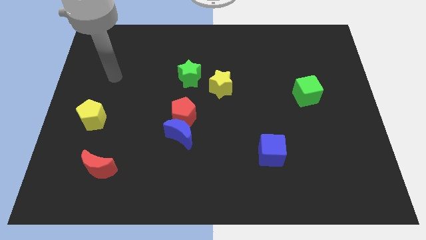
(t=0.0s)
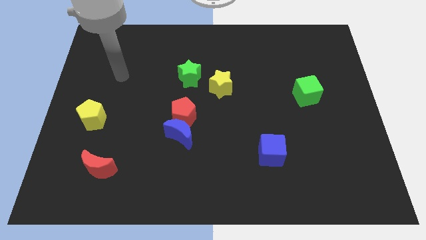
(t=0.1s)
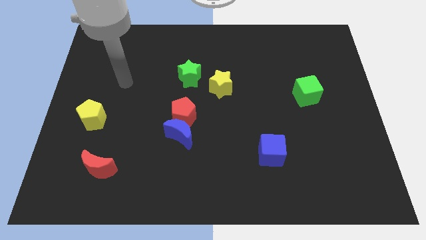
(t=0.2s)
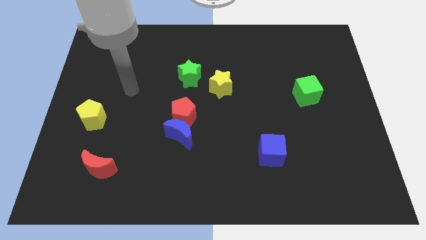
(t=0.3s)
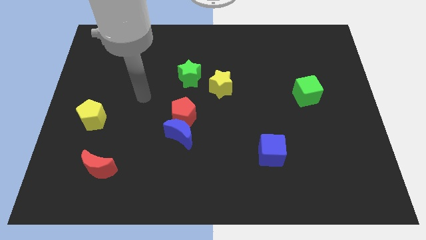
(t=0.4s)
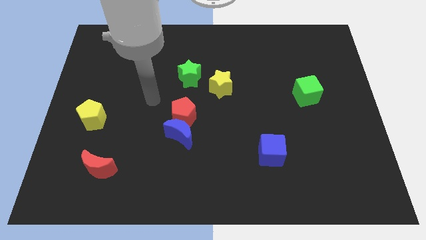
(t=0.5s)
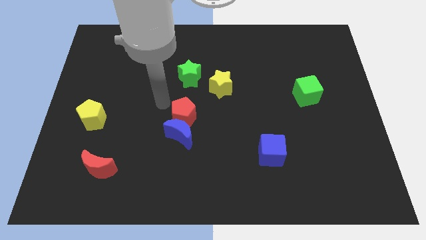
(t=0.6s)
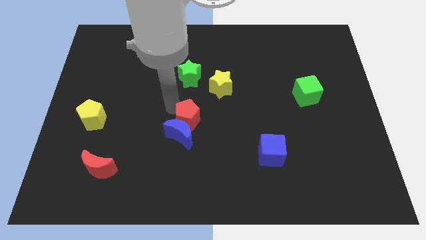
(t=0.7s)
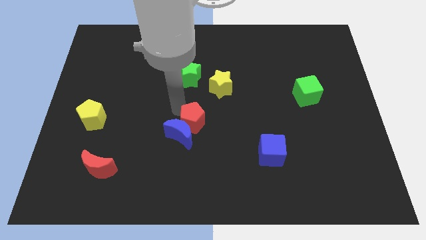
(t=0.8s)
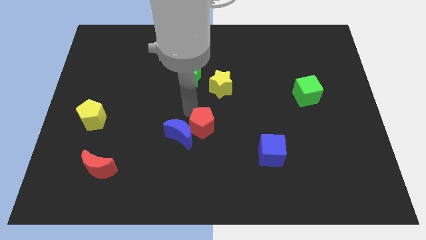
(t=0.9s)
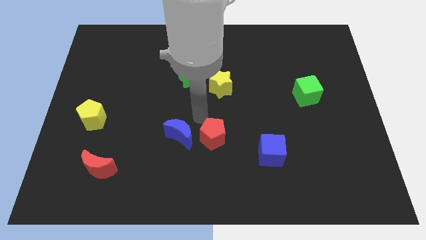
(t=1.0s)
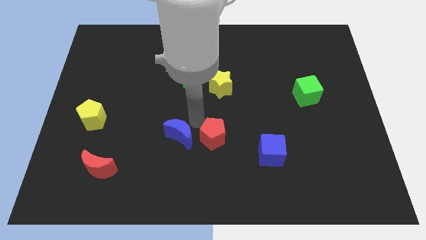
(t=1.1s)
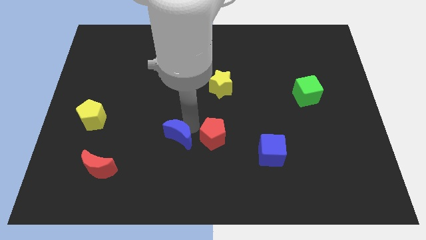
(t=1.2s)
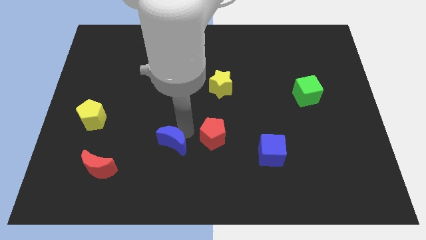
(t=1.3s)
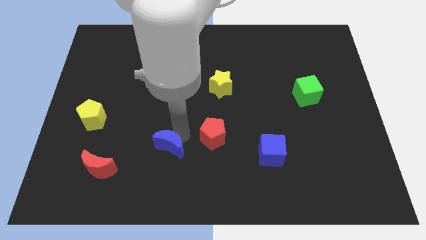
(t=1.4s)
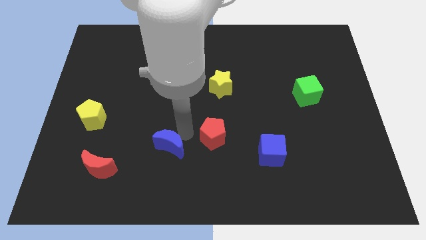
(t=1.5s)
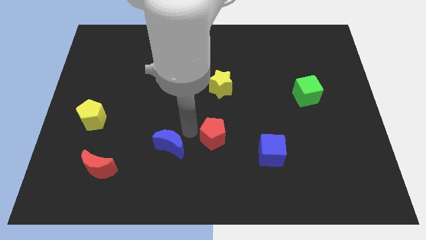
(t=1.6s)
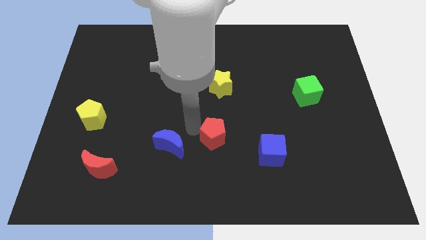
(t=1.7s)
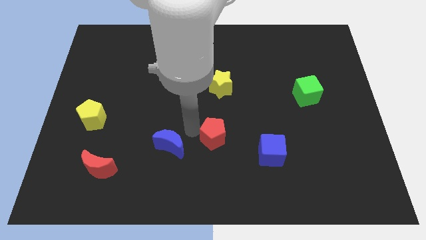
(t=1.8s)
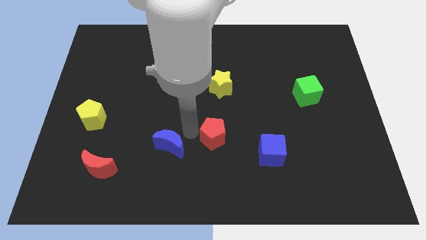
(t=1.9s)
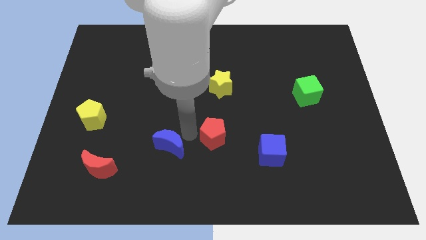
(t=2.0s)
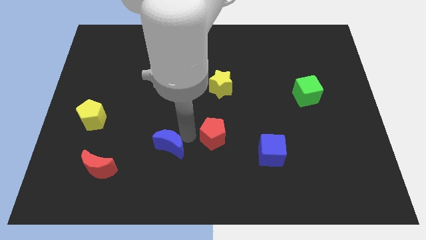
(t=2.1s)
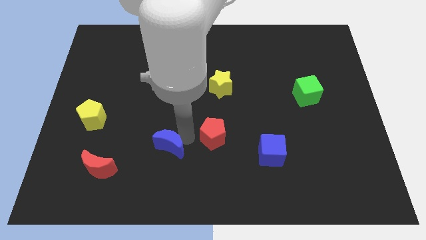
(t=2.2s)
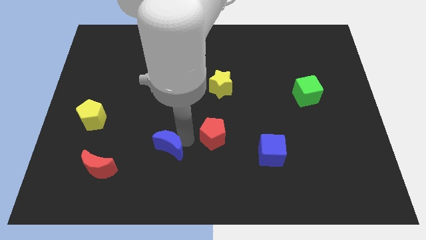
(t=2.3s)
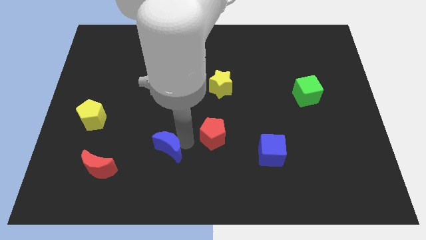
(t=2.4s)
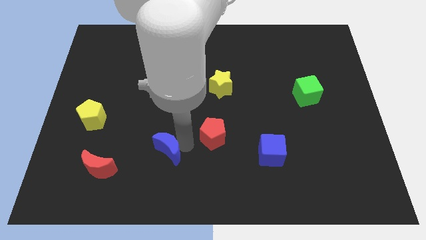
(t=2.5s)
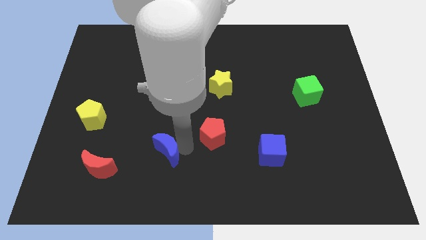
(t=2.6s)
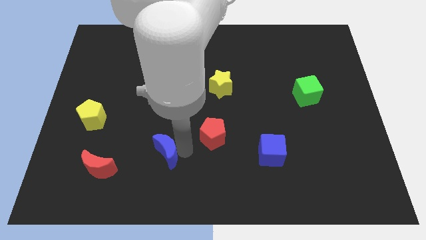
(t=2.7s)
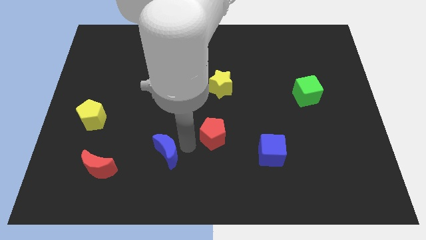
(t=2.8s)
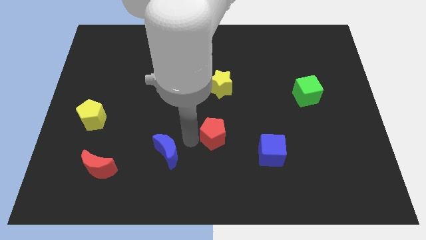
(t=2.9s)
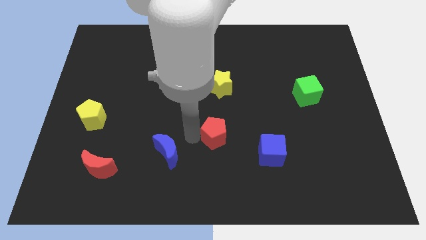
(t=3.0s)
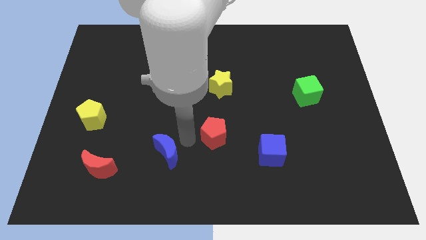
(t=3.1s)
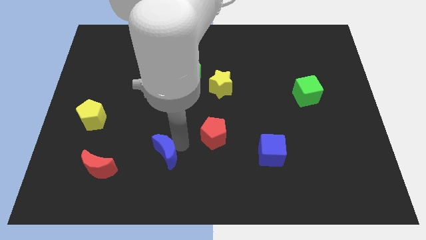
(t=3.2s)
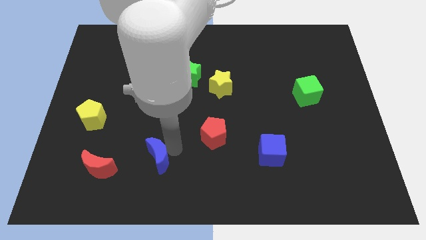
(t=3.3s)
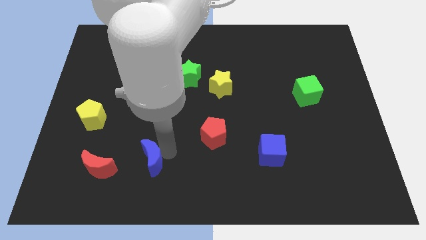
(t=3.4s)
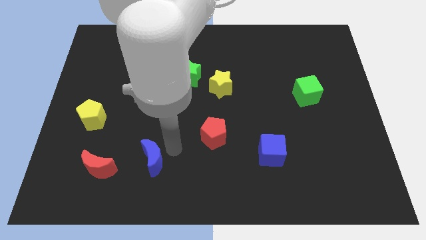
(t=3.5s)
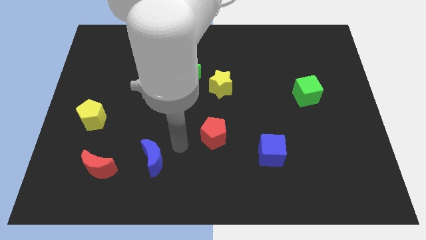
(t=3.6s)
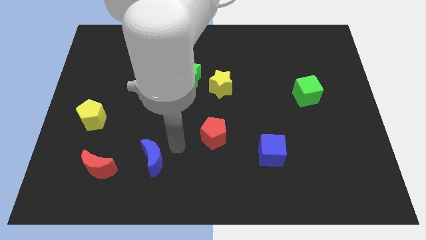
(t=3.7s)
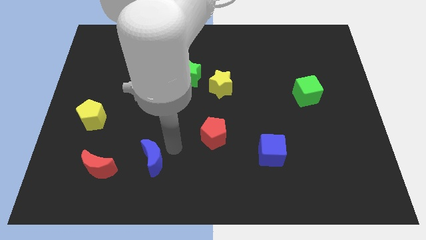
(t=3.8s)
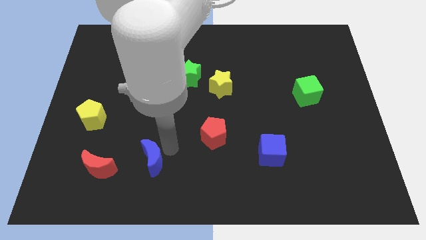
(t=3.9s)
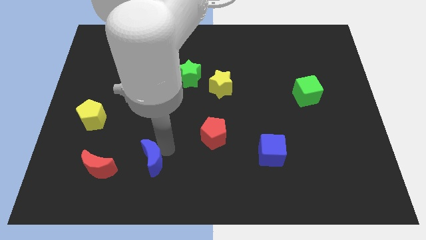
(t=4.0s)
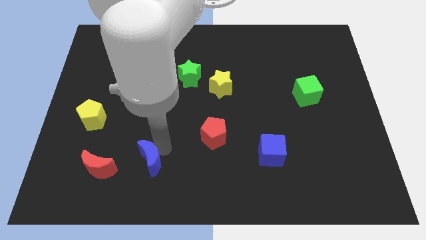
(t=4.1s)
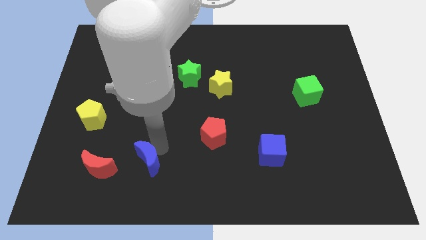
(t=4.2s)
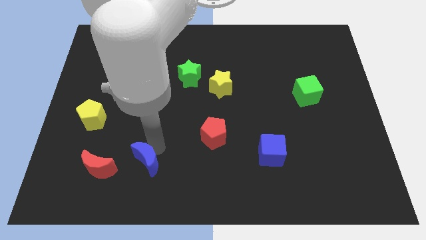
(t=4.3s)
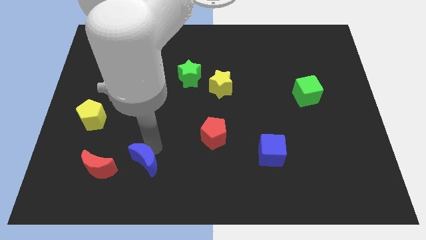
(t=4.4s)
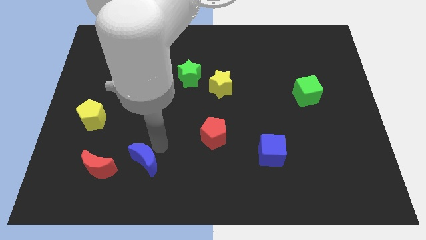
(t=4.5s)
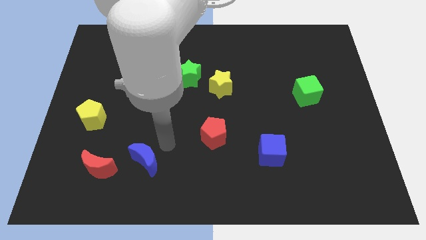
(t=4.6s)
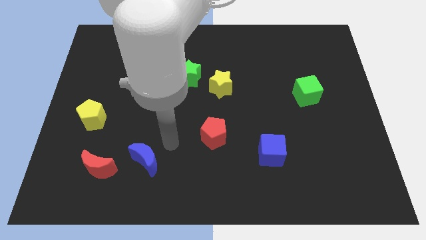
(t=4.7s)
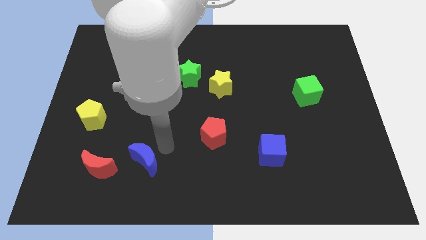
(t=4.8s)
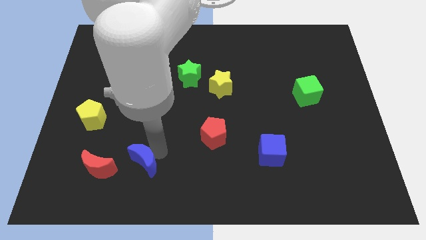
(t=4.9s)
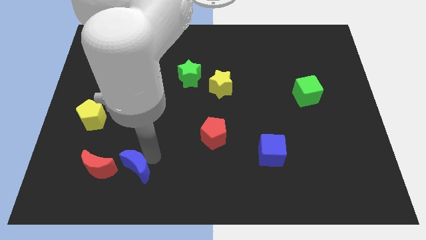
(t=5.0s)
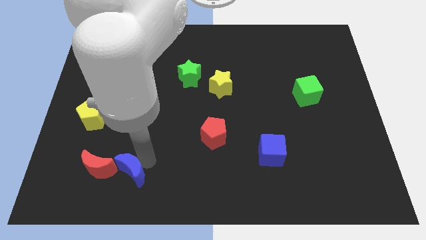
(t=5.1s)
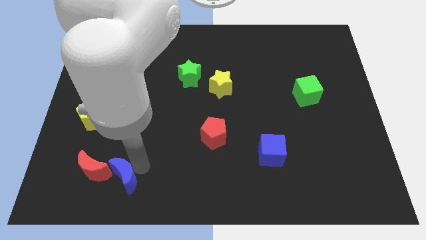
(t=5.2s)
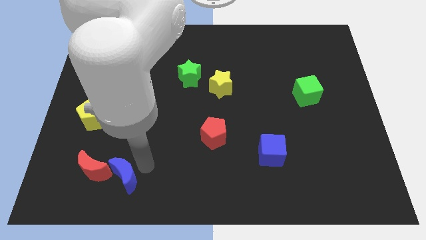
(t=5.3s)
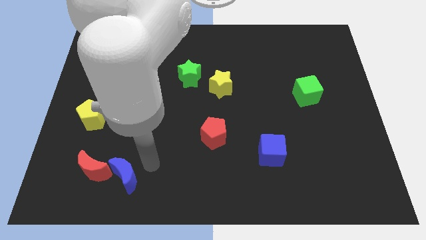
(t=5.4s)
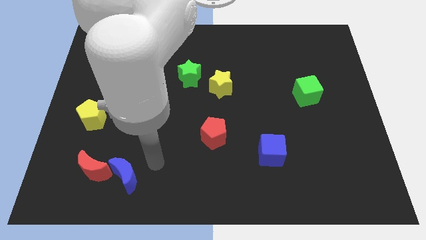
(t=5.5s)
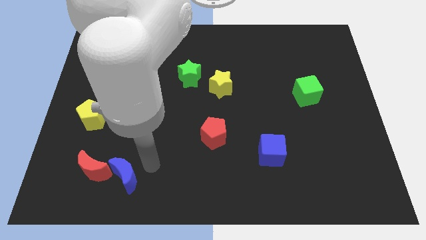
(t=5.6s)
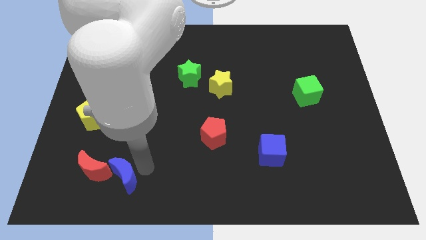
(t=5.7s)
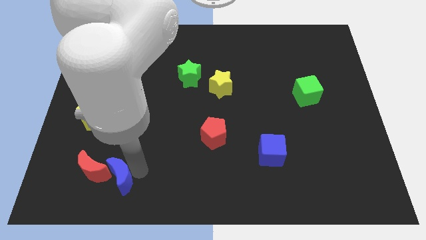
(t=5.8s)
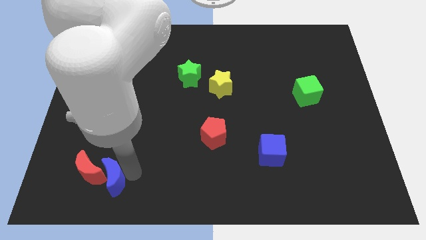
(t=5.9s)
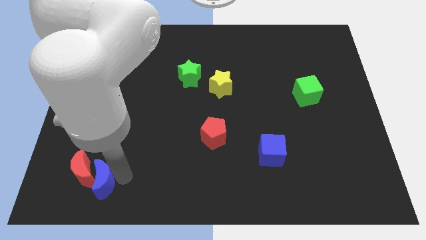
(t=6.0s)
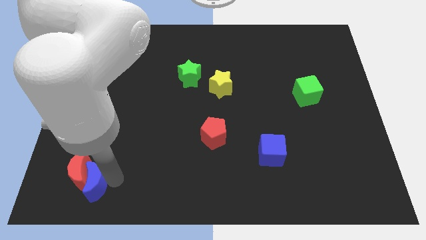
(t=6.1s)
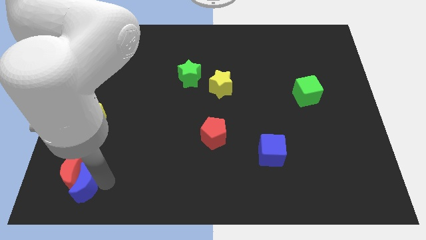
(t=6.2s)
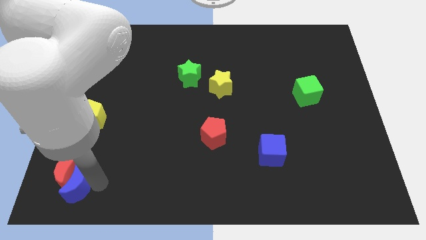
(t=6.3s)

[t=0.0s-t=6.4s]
push the blue moon to the bottom left of the board
